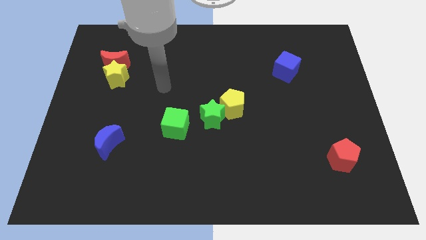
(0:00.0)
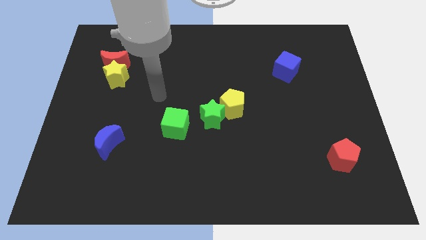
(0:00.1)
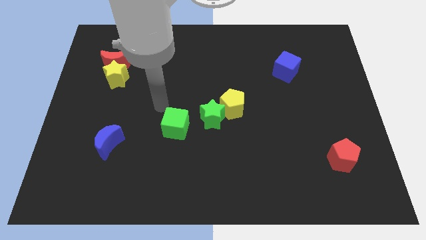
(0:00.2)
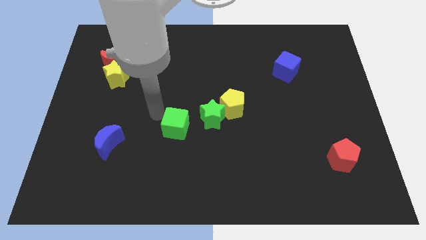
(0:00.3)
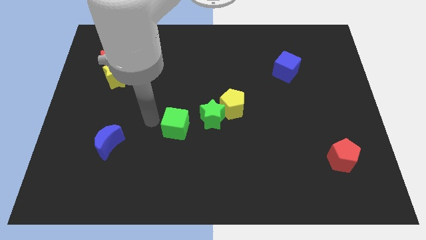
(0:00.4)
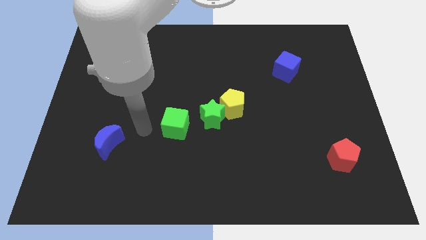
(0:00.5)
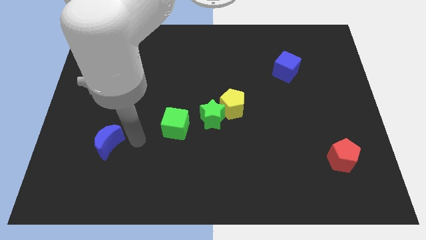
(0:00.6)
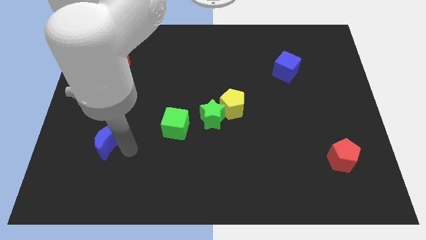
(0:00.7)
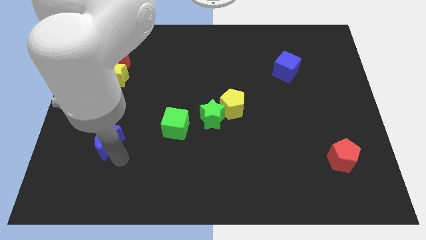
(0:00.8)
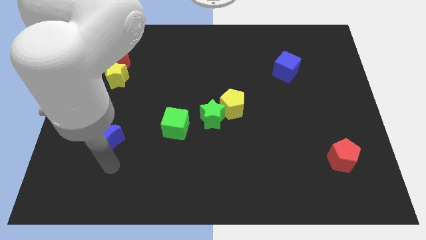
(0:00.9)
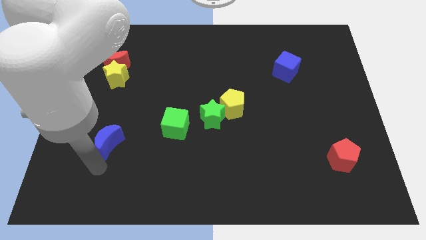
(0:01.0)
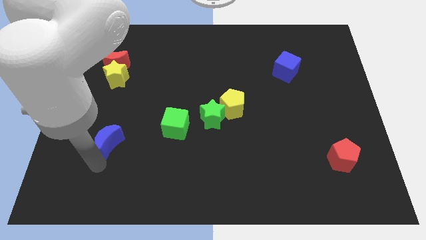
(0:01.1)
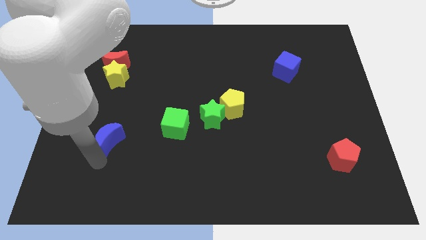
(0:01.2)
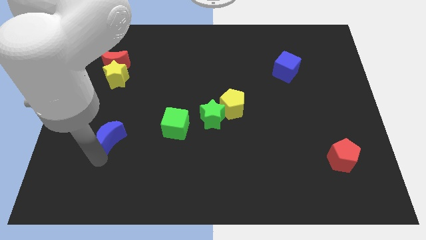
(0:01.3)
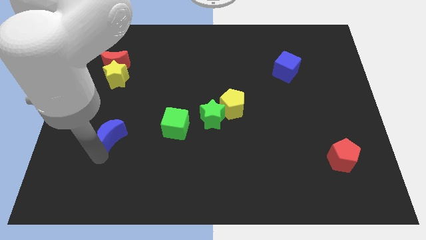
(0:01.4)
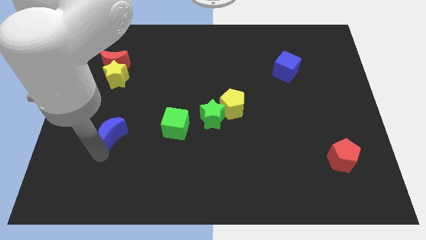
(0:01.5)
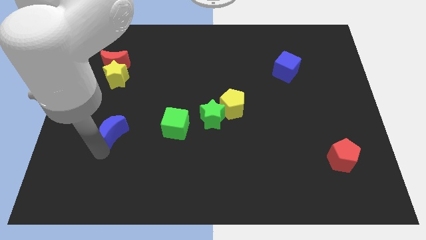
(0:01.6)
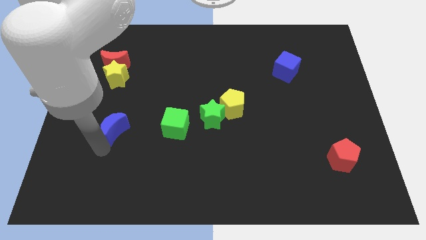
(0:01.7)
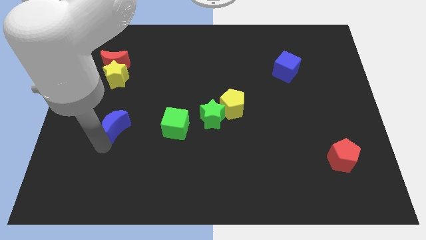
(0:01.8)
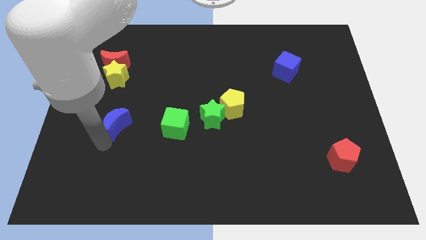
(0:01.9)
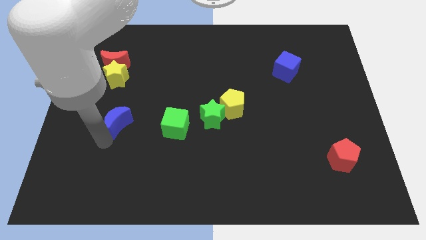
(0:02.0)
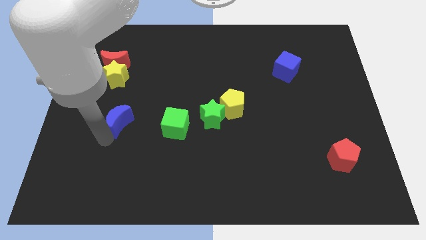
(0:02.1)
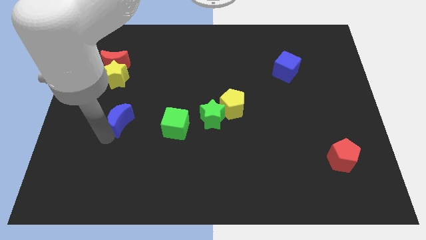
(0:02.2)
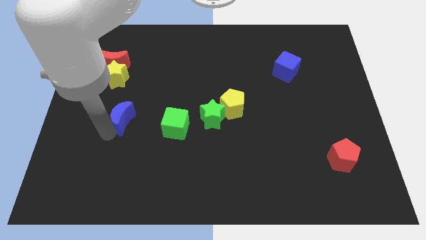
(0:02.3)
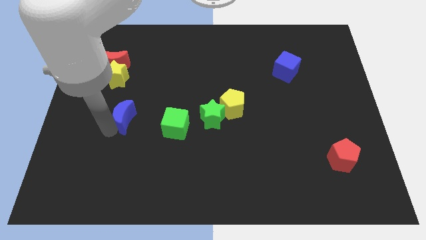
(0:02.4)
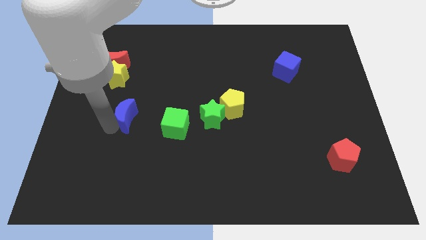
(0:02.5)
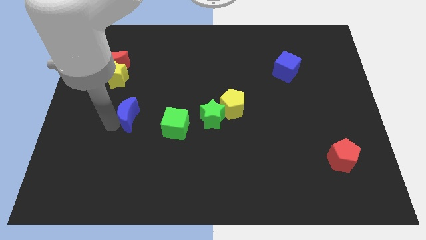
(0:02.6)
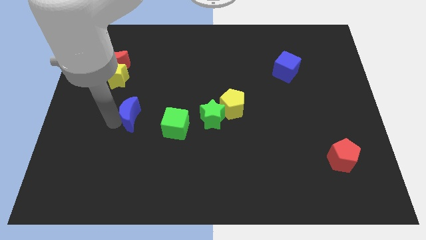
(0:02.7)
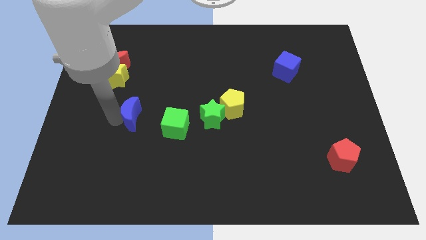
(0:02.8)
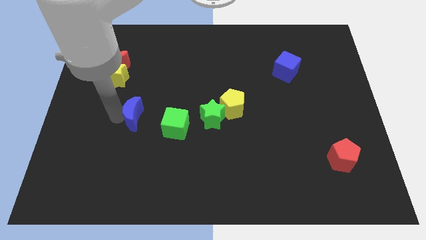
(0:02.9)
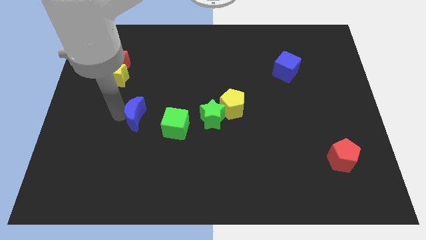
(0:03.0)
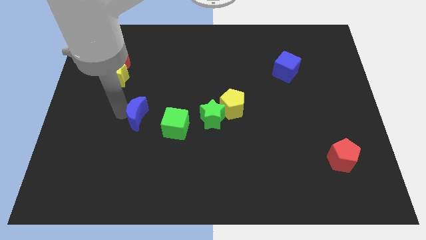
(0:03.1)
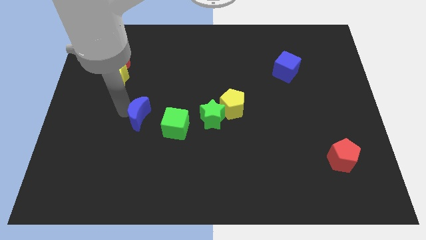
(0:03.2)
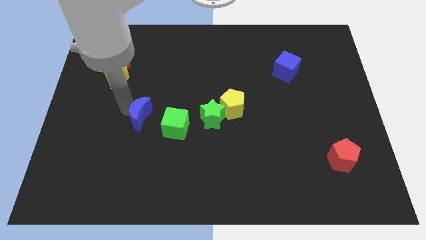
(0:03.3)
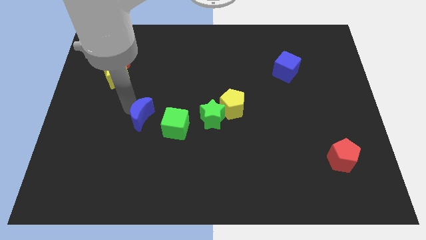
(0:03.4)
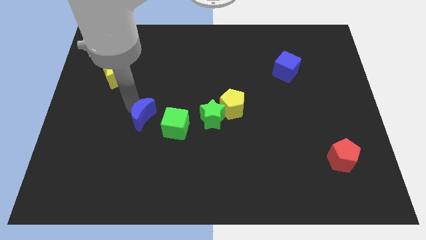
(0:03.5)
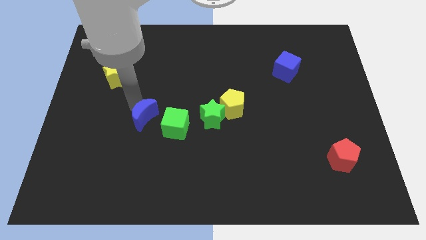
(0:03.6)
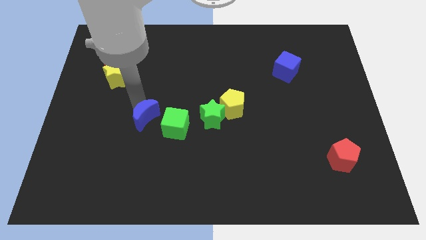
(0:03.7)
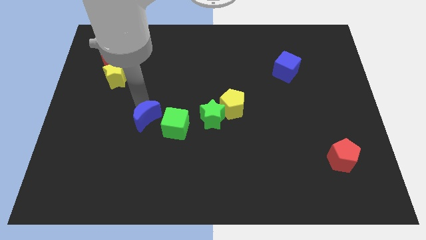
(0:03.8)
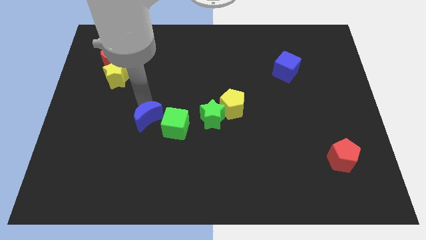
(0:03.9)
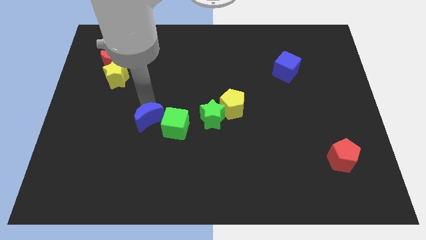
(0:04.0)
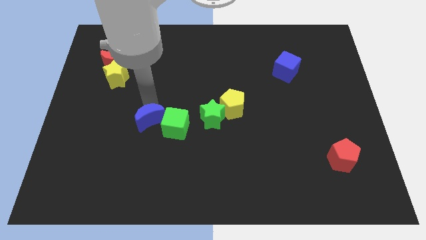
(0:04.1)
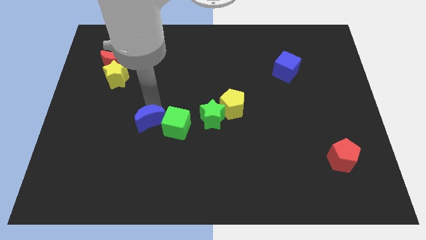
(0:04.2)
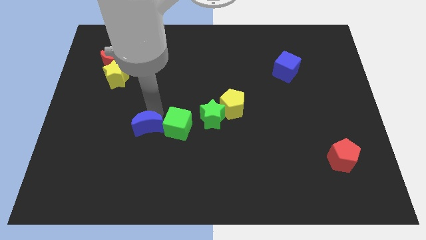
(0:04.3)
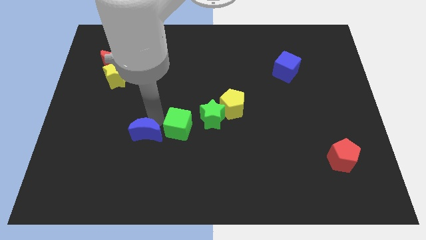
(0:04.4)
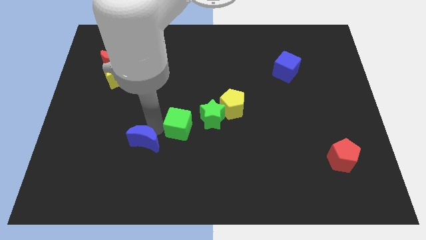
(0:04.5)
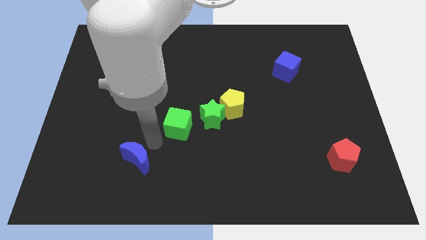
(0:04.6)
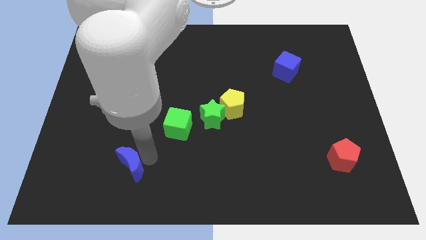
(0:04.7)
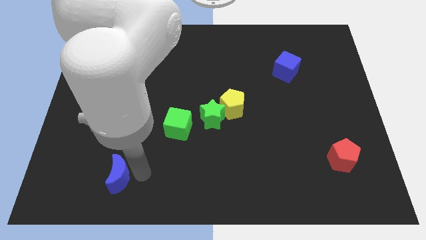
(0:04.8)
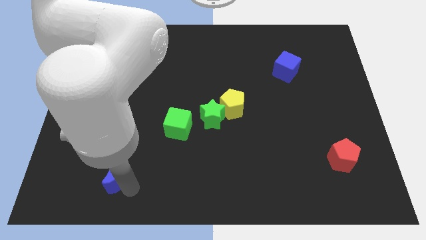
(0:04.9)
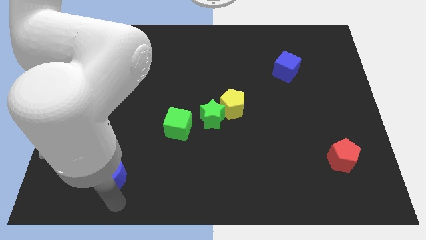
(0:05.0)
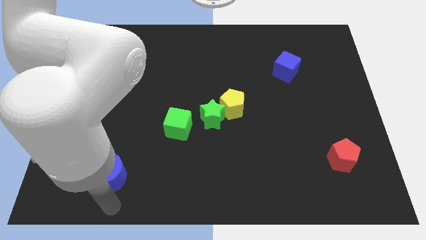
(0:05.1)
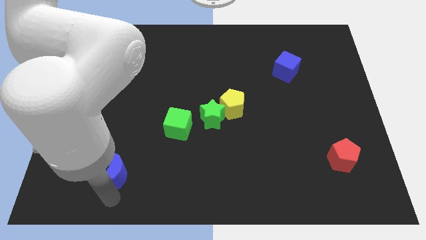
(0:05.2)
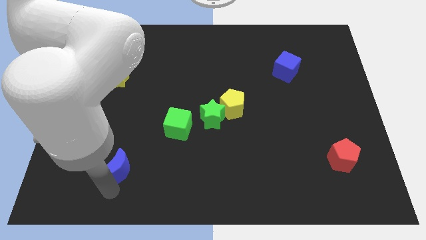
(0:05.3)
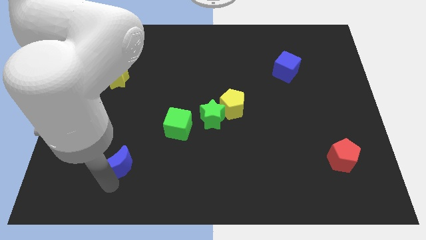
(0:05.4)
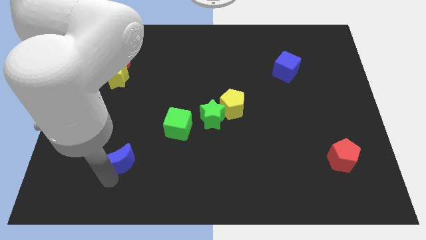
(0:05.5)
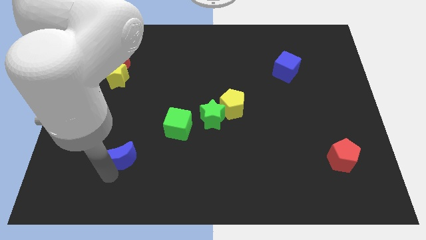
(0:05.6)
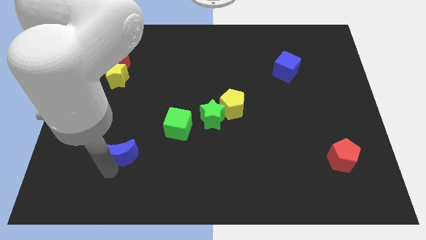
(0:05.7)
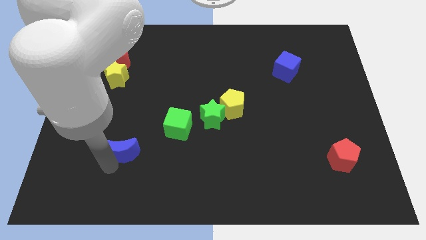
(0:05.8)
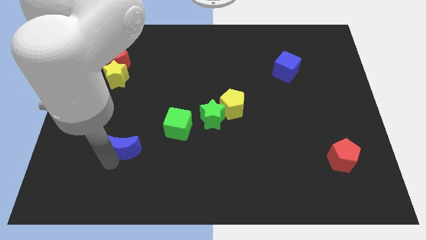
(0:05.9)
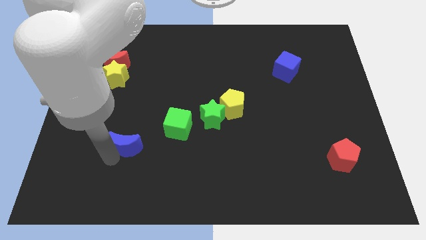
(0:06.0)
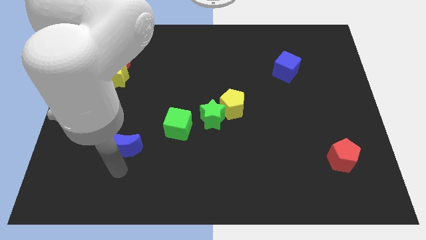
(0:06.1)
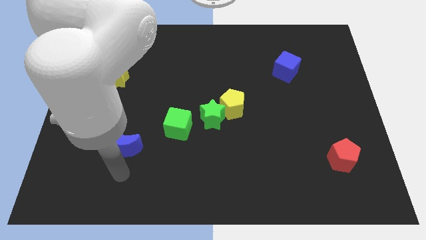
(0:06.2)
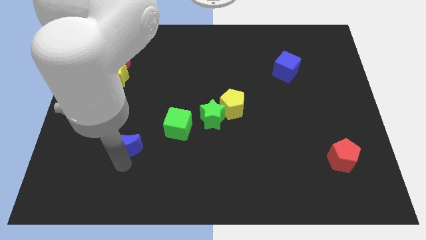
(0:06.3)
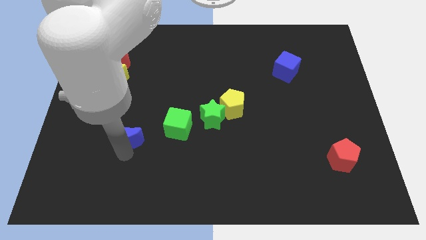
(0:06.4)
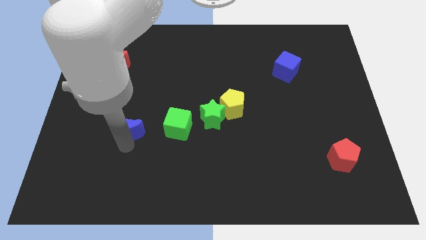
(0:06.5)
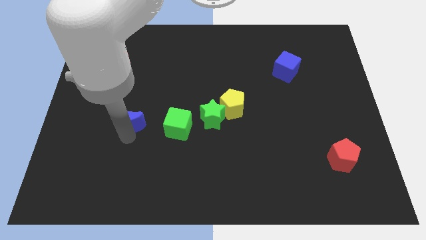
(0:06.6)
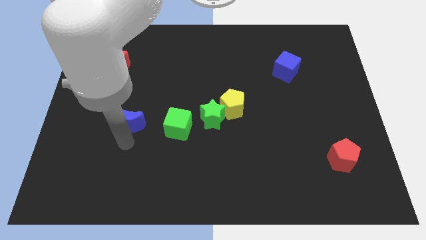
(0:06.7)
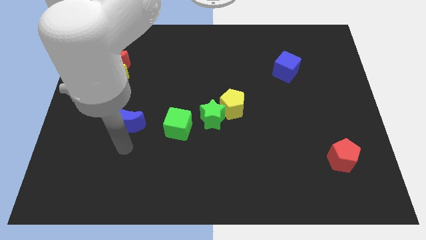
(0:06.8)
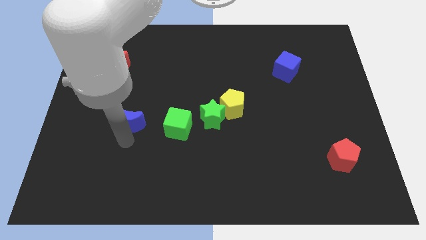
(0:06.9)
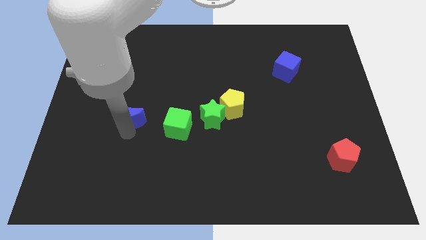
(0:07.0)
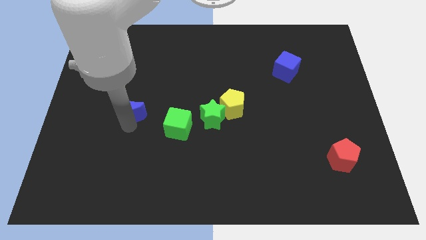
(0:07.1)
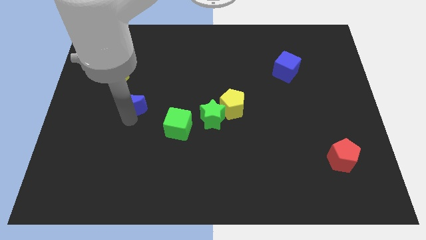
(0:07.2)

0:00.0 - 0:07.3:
push the blue moon to the bottom right side of the yellow star
